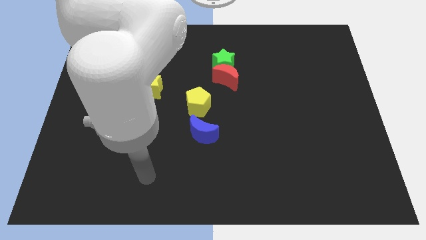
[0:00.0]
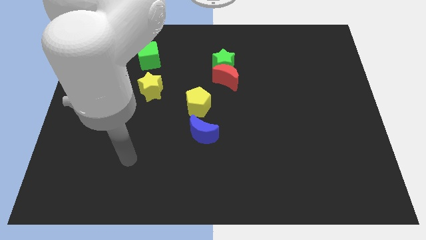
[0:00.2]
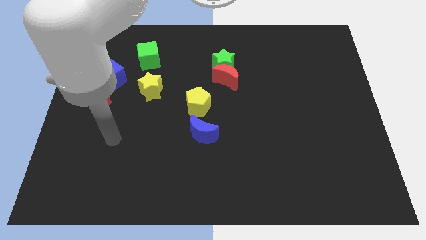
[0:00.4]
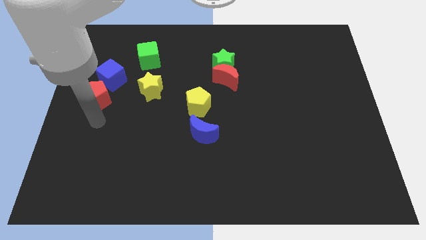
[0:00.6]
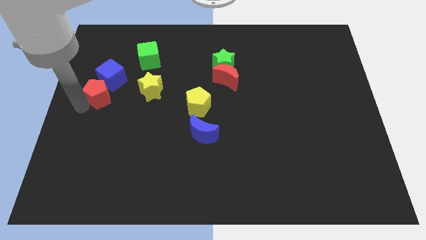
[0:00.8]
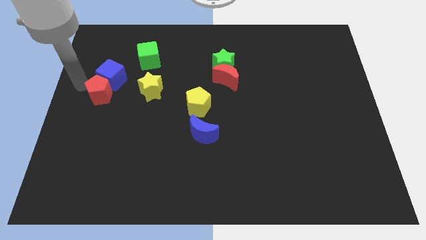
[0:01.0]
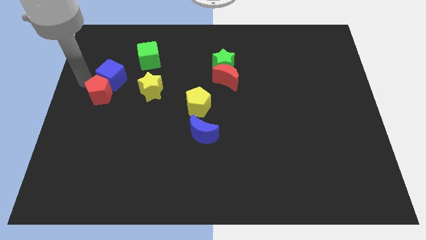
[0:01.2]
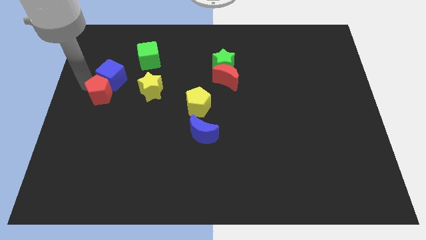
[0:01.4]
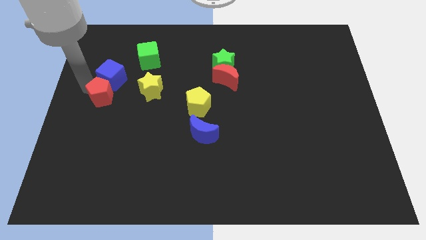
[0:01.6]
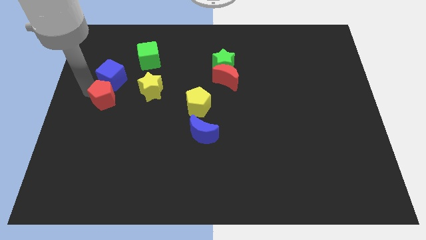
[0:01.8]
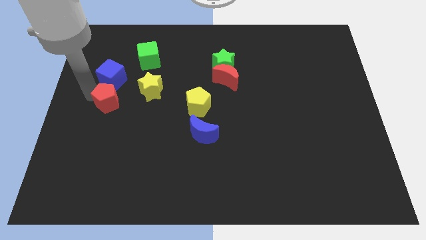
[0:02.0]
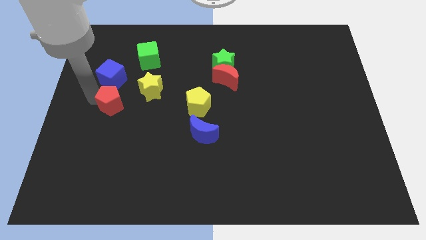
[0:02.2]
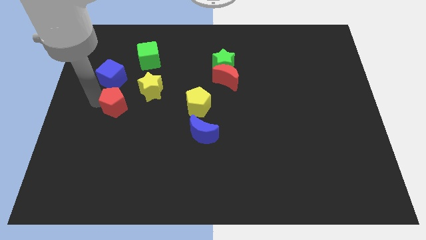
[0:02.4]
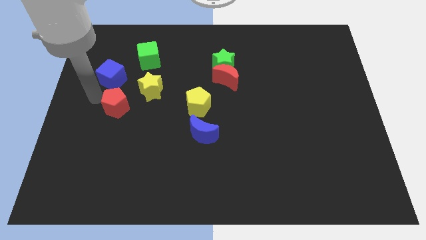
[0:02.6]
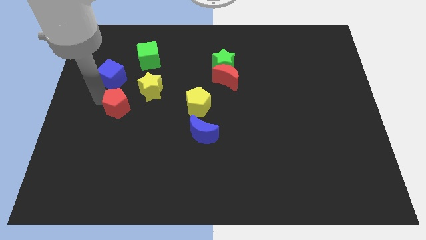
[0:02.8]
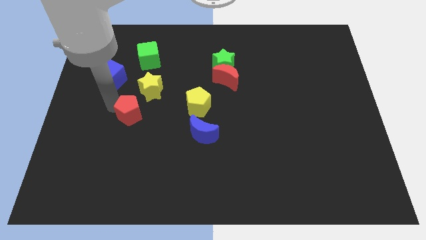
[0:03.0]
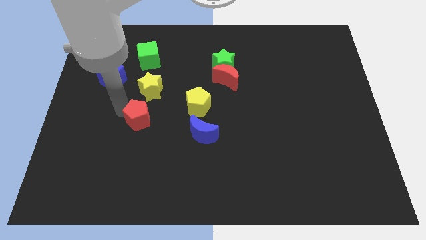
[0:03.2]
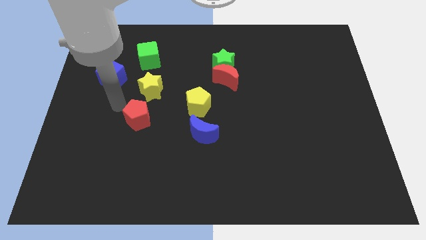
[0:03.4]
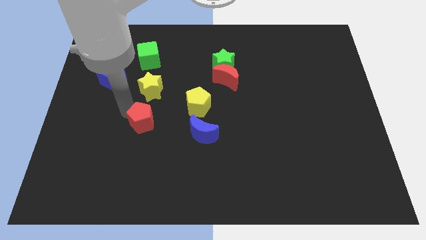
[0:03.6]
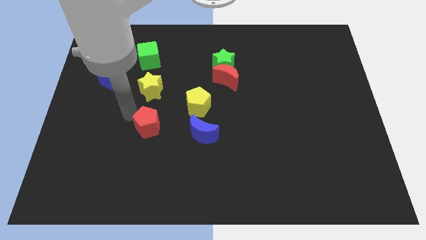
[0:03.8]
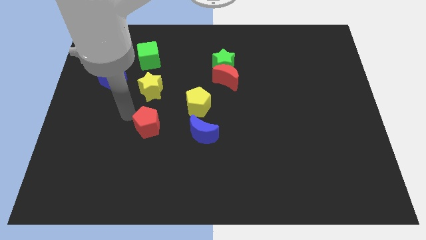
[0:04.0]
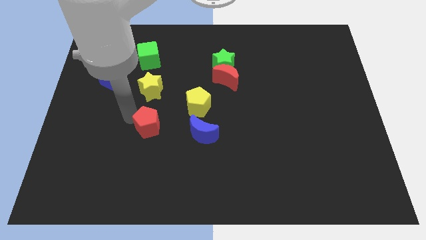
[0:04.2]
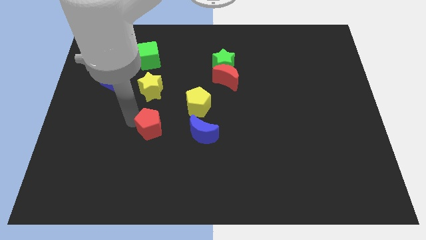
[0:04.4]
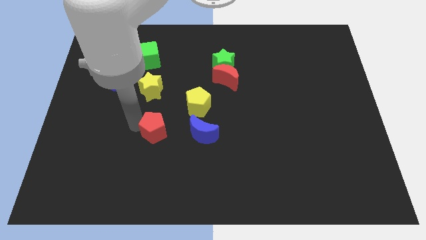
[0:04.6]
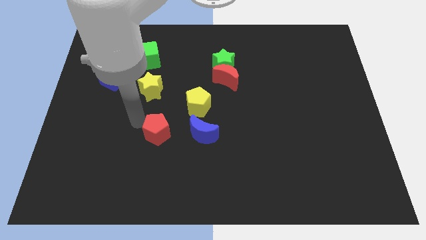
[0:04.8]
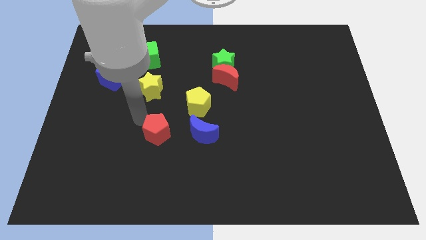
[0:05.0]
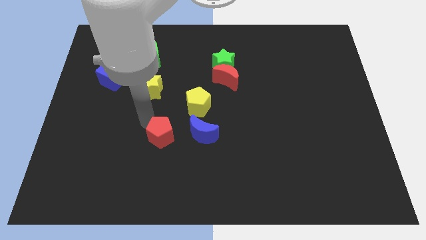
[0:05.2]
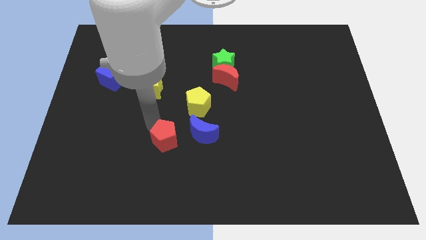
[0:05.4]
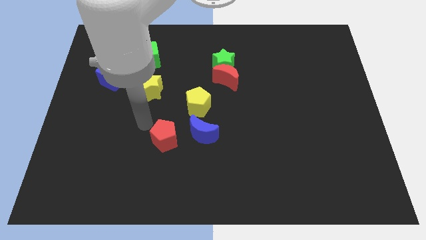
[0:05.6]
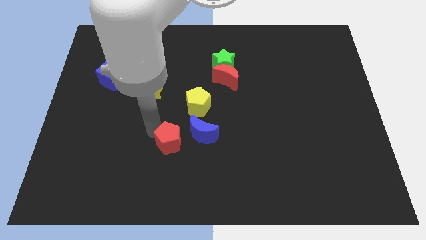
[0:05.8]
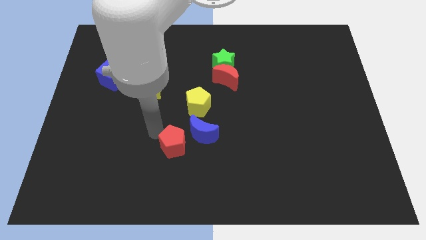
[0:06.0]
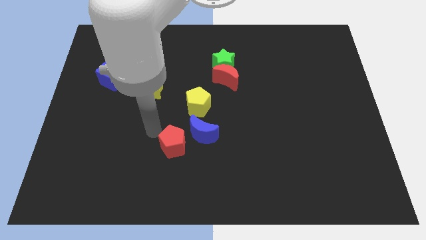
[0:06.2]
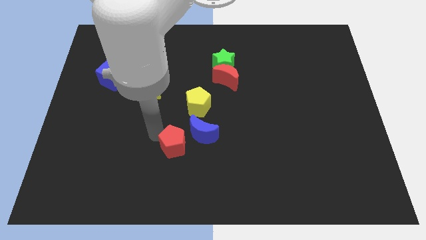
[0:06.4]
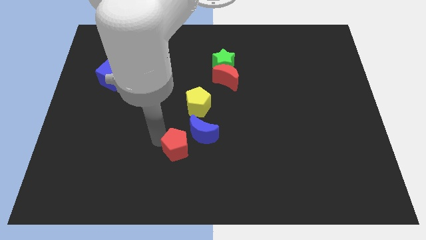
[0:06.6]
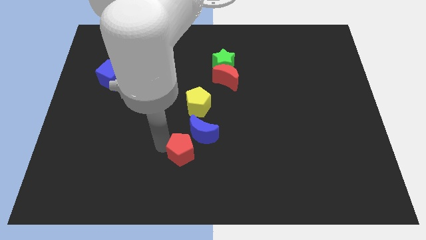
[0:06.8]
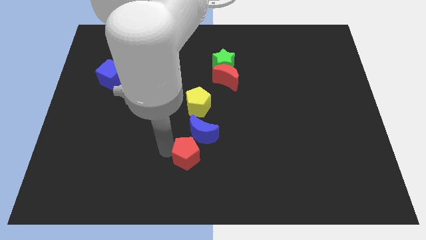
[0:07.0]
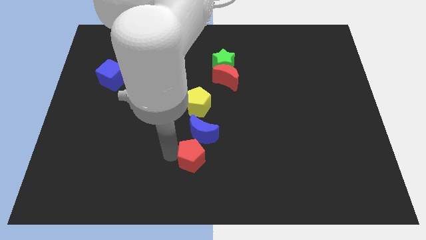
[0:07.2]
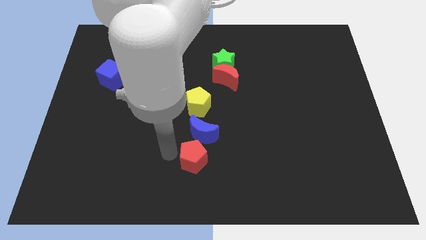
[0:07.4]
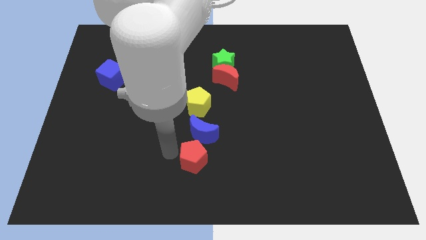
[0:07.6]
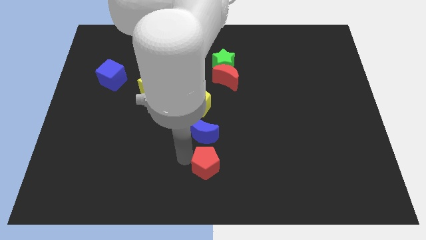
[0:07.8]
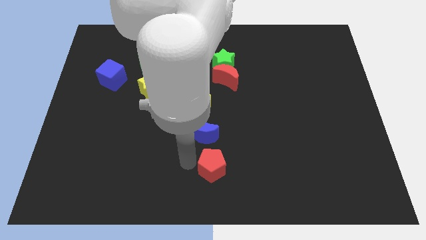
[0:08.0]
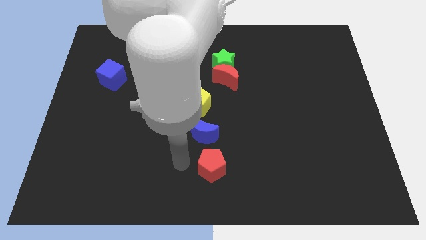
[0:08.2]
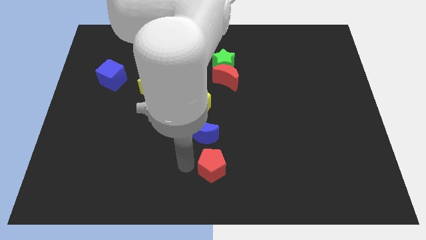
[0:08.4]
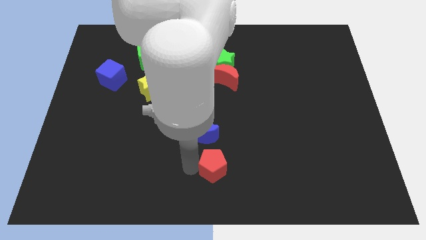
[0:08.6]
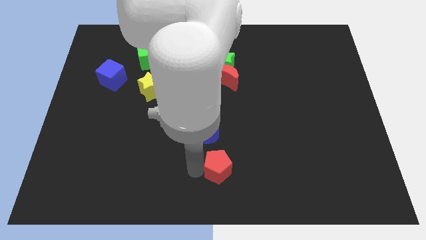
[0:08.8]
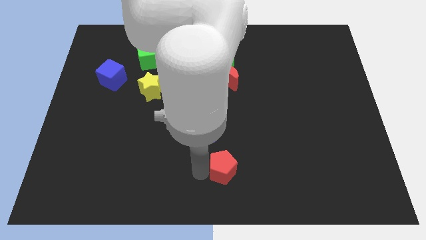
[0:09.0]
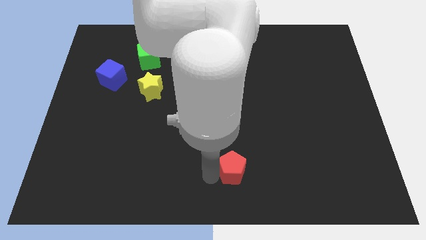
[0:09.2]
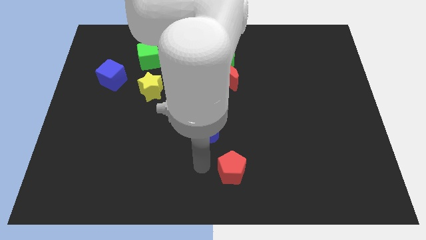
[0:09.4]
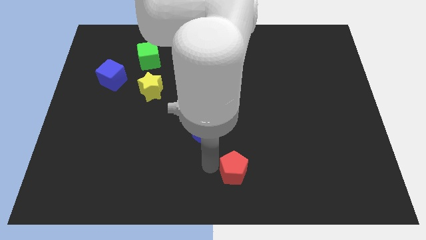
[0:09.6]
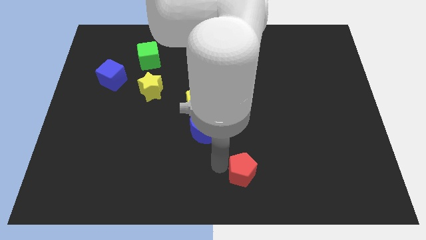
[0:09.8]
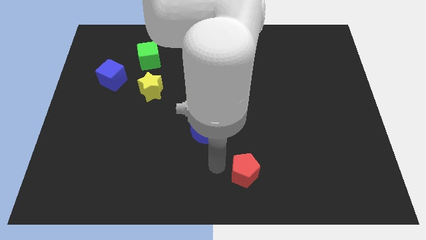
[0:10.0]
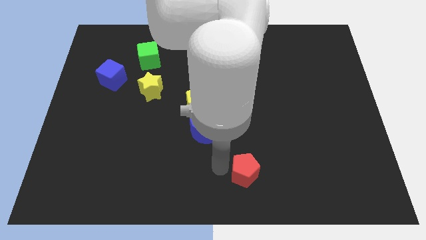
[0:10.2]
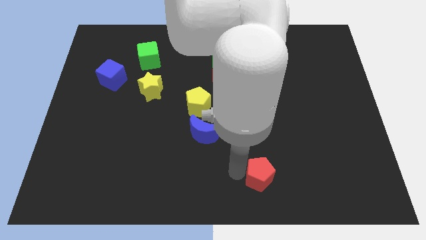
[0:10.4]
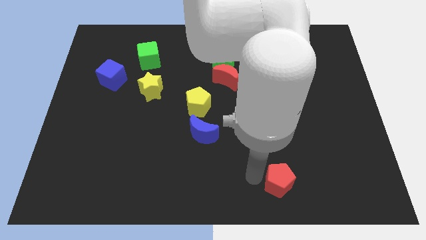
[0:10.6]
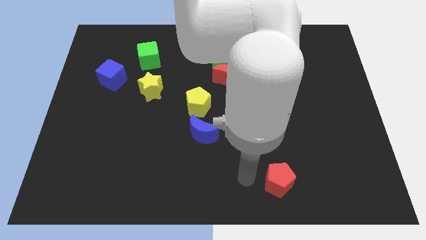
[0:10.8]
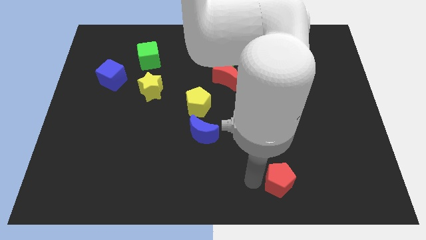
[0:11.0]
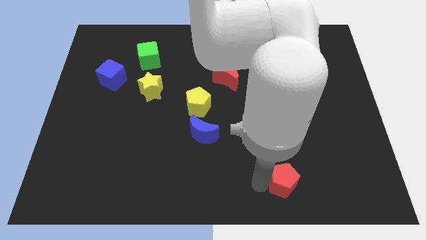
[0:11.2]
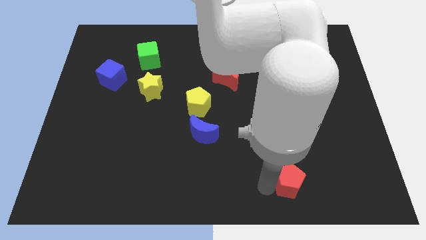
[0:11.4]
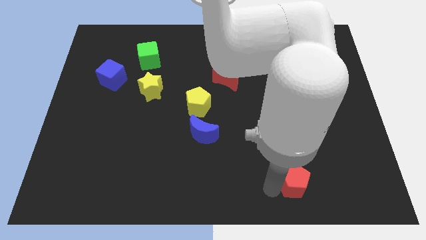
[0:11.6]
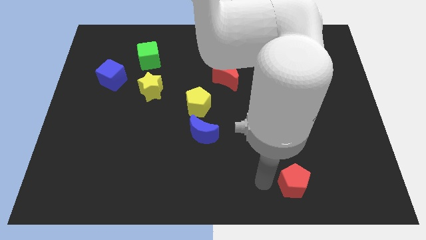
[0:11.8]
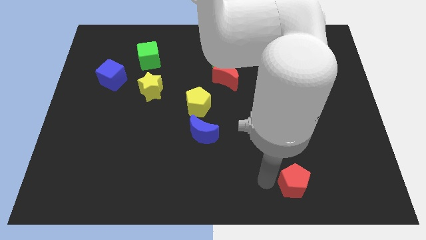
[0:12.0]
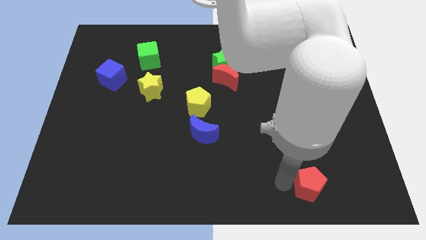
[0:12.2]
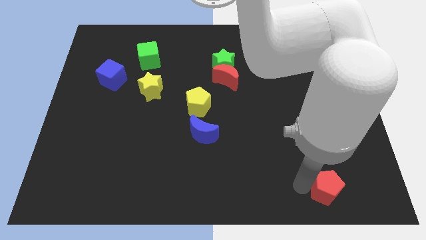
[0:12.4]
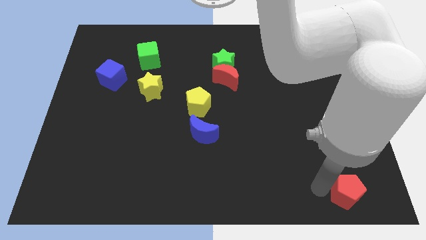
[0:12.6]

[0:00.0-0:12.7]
slide the red pentagon to the lower right corner
